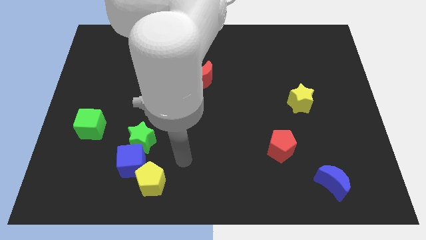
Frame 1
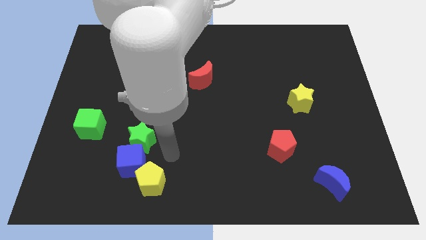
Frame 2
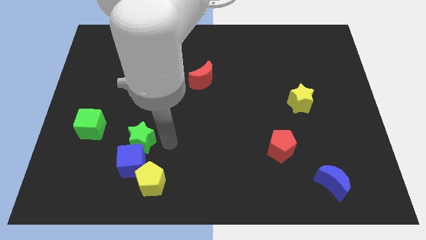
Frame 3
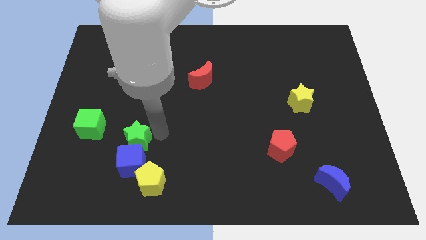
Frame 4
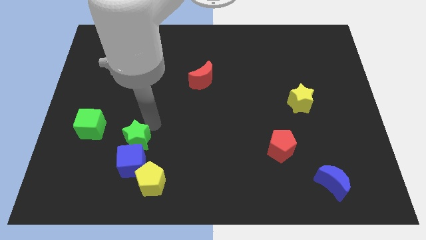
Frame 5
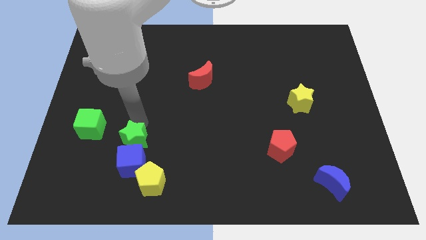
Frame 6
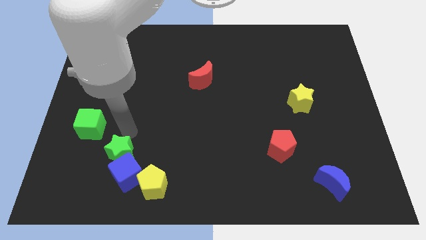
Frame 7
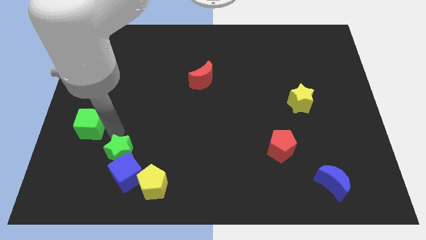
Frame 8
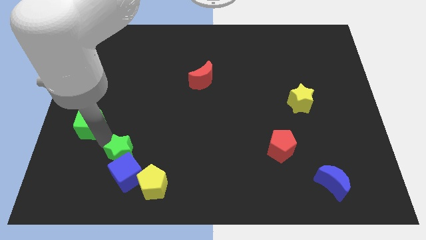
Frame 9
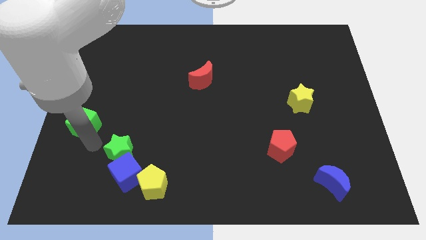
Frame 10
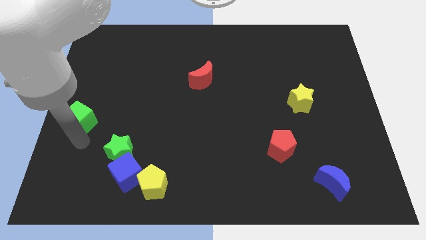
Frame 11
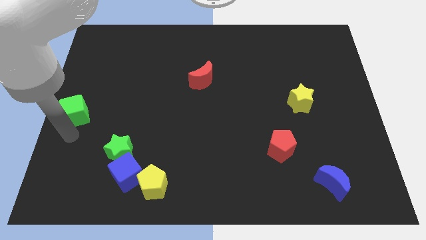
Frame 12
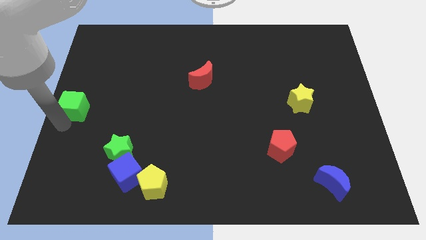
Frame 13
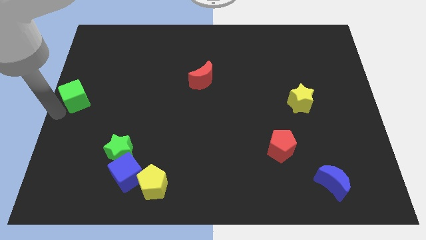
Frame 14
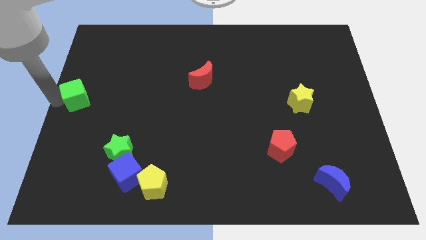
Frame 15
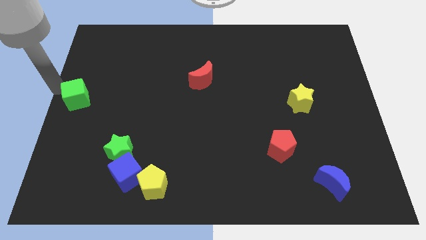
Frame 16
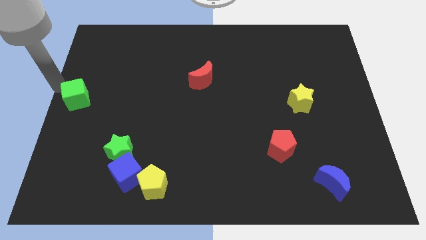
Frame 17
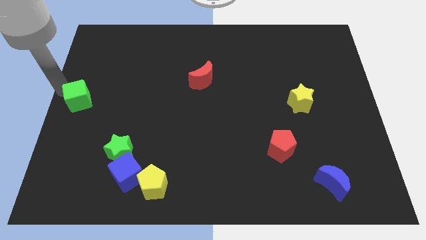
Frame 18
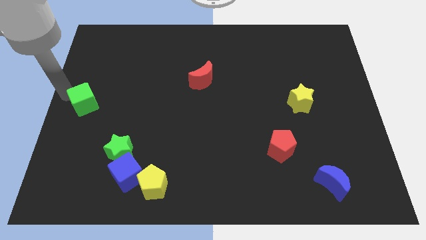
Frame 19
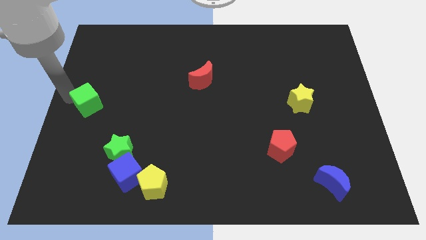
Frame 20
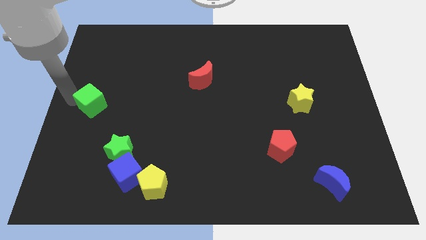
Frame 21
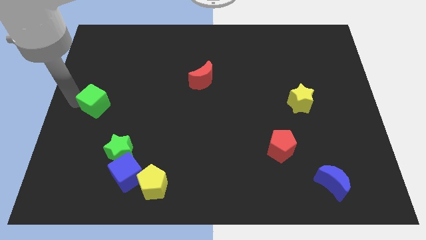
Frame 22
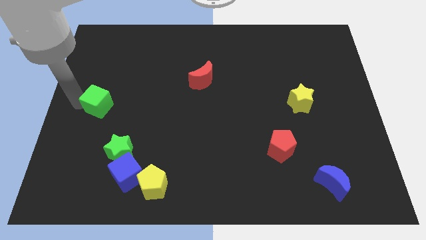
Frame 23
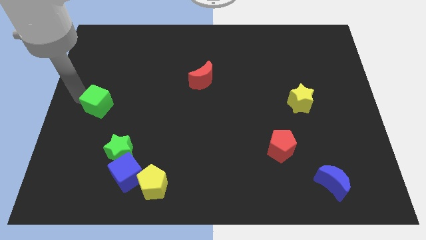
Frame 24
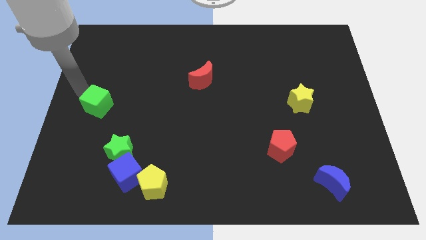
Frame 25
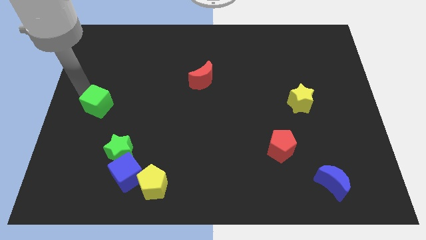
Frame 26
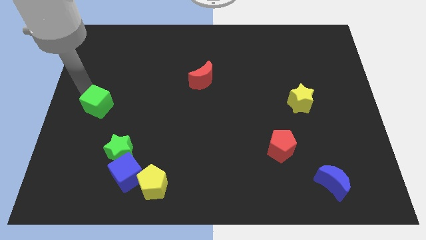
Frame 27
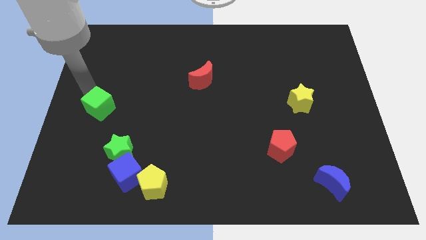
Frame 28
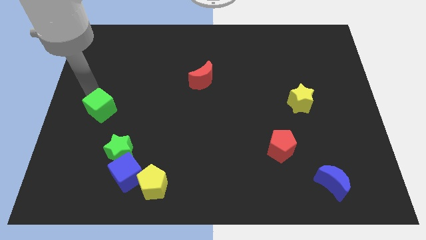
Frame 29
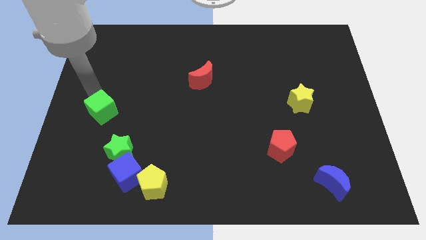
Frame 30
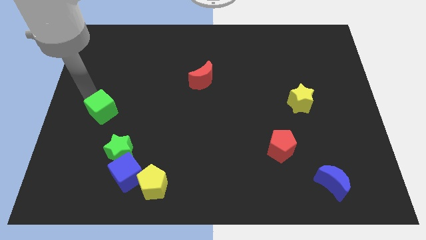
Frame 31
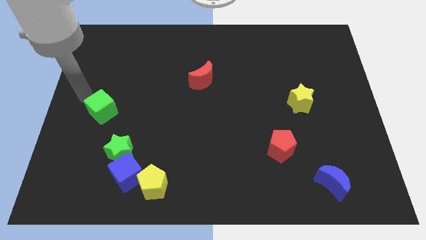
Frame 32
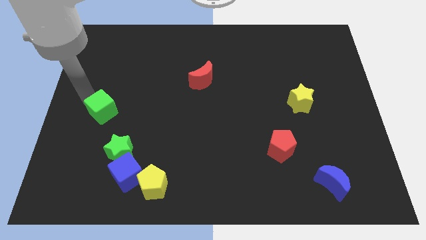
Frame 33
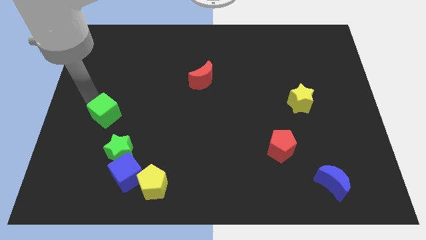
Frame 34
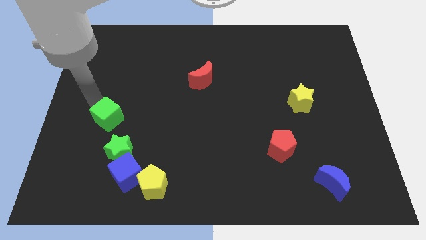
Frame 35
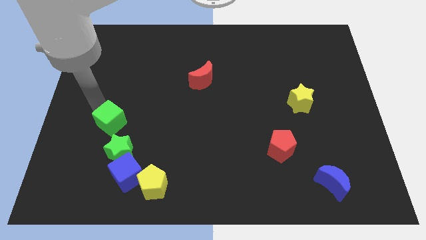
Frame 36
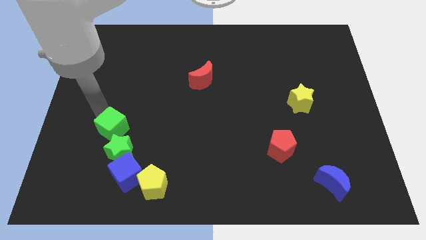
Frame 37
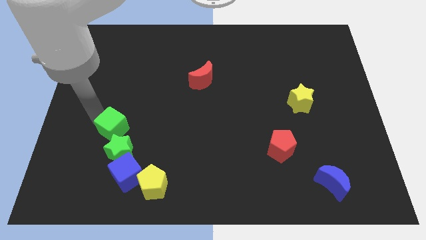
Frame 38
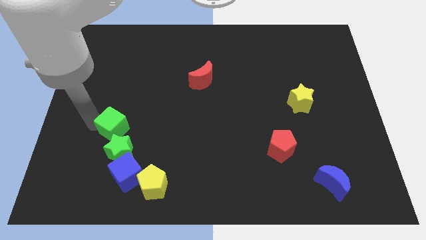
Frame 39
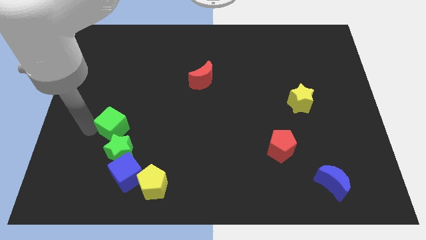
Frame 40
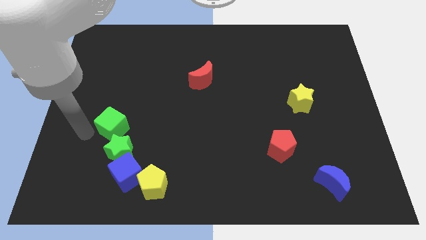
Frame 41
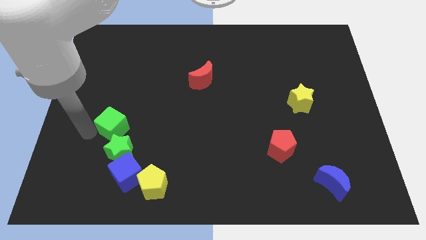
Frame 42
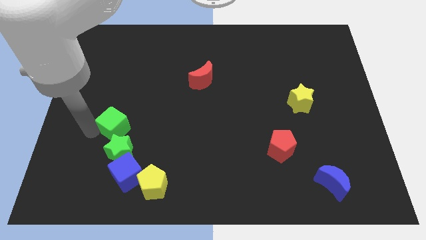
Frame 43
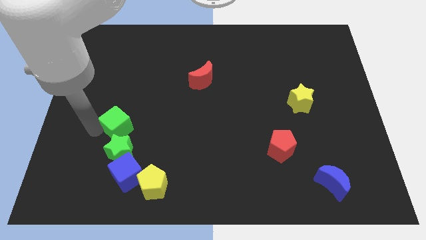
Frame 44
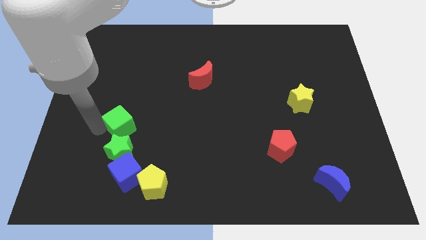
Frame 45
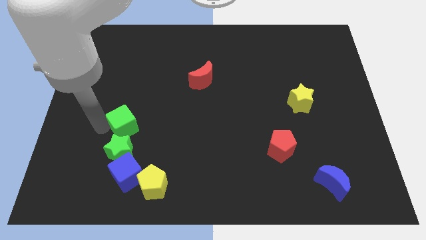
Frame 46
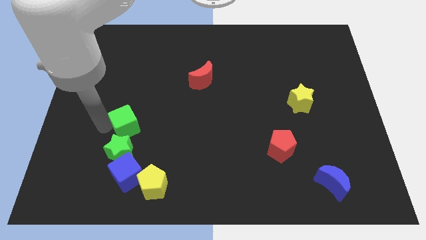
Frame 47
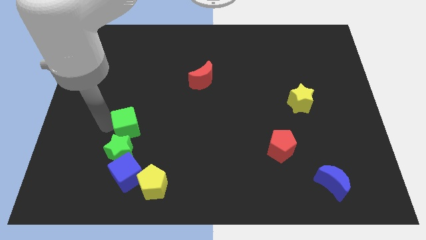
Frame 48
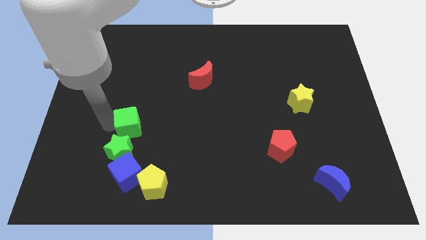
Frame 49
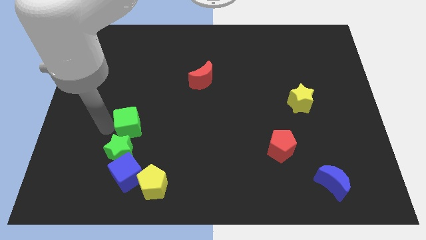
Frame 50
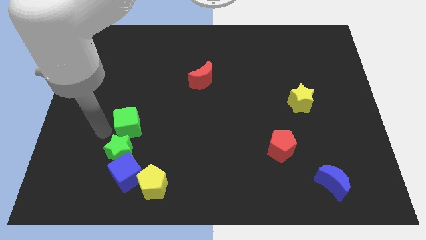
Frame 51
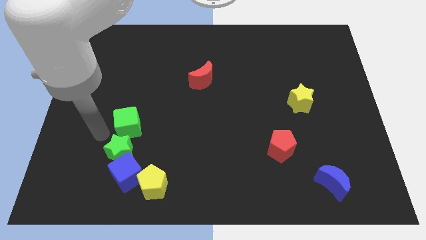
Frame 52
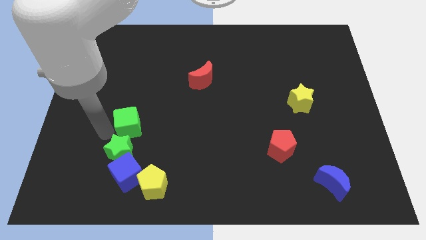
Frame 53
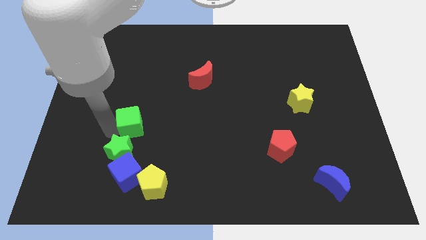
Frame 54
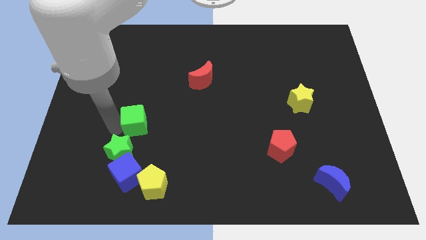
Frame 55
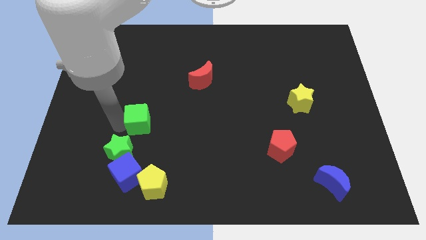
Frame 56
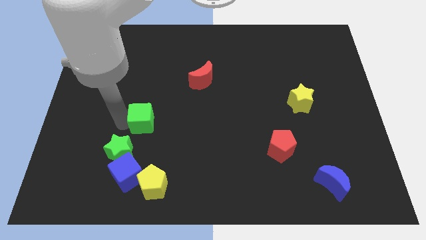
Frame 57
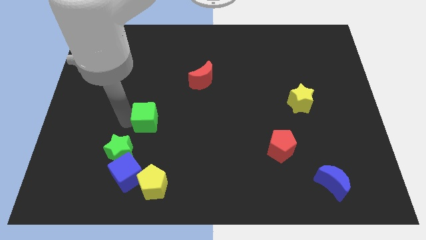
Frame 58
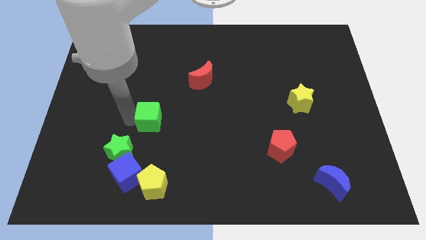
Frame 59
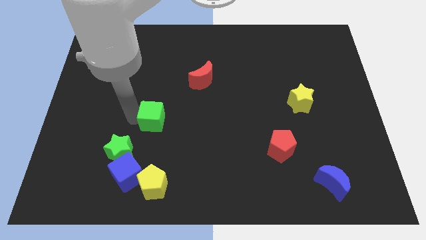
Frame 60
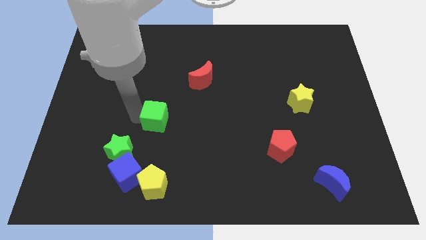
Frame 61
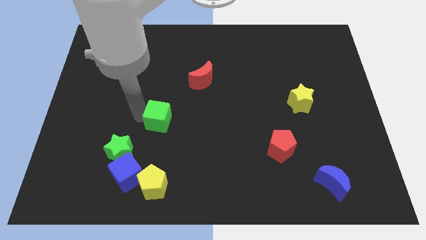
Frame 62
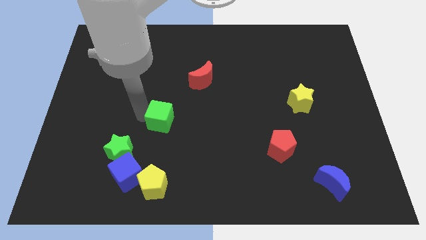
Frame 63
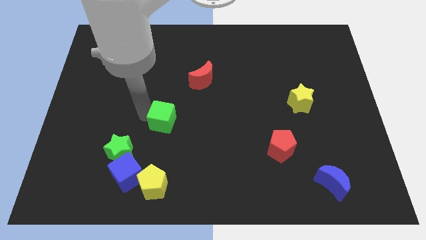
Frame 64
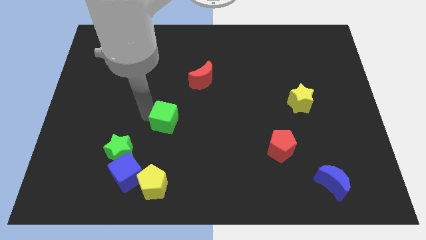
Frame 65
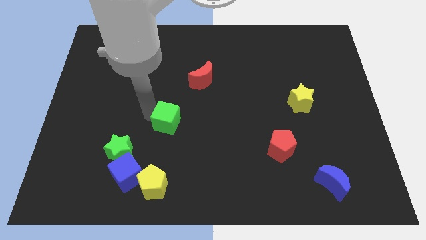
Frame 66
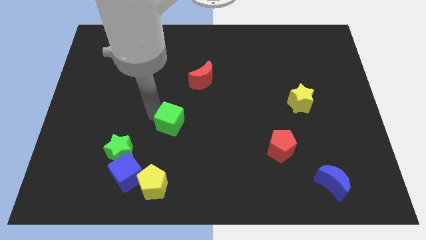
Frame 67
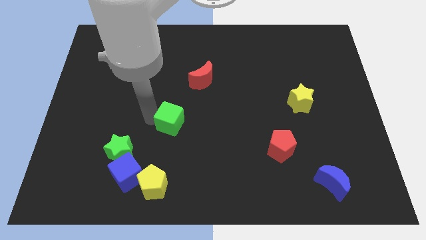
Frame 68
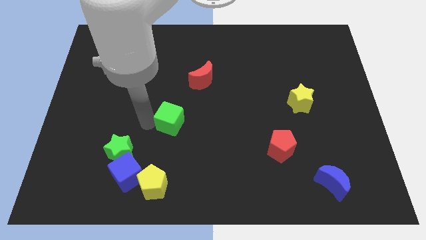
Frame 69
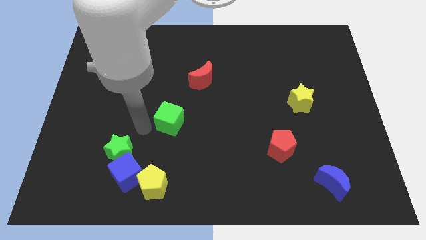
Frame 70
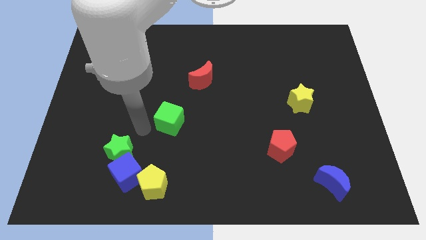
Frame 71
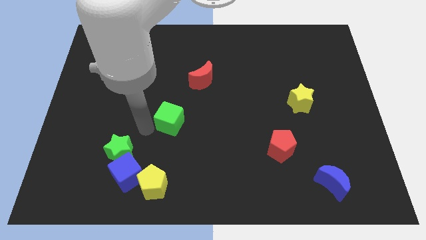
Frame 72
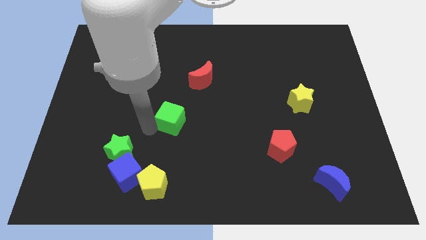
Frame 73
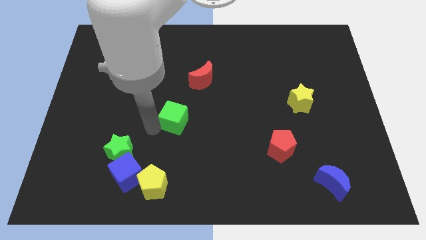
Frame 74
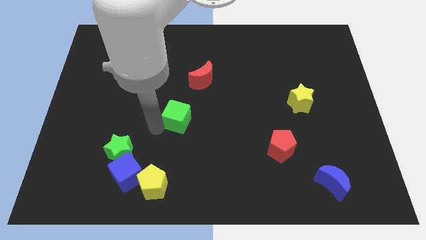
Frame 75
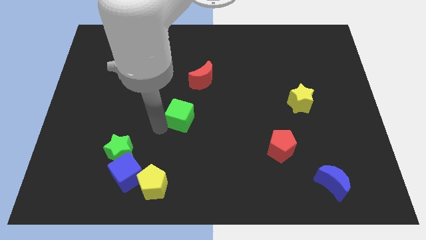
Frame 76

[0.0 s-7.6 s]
put the green cube to the bottom of the red moon
